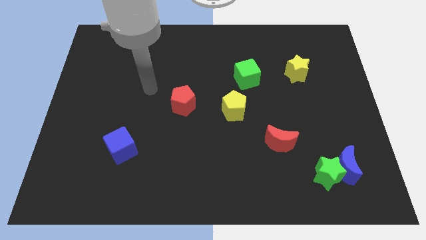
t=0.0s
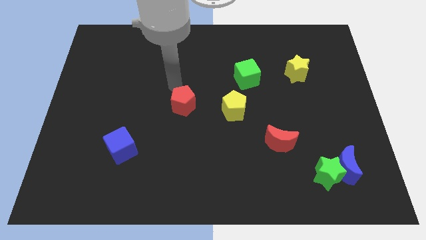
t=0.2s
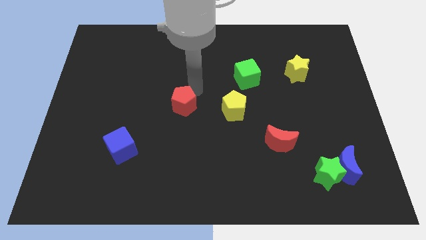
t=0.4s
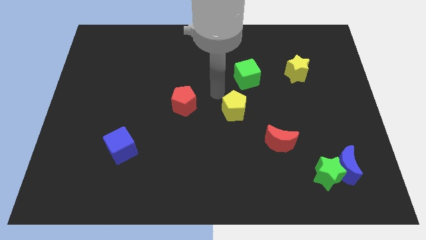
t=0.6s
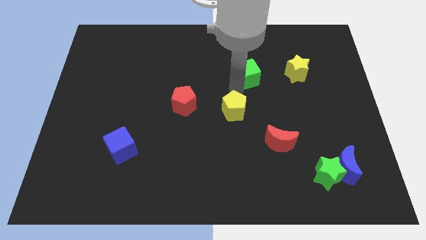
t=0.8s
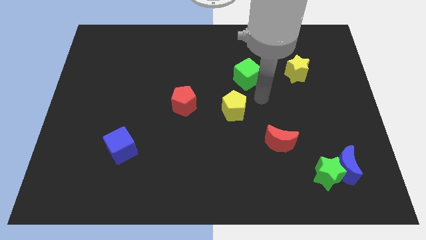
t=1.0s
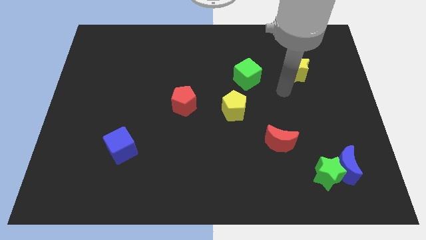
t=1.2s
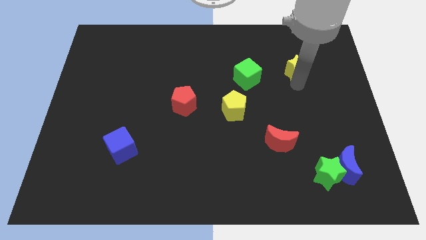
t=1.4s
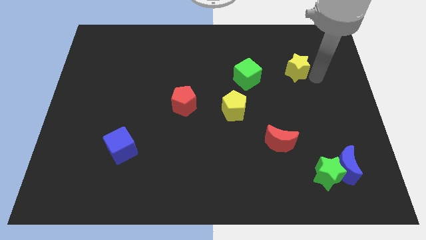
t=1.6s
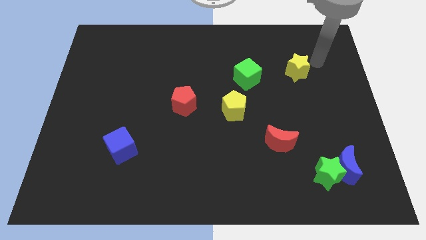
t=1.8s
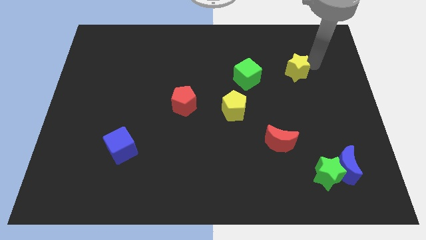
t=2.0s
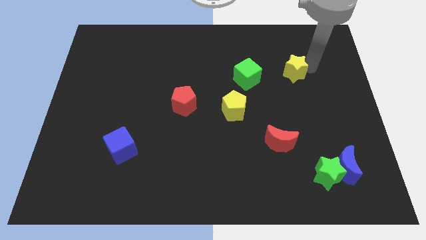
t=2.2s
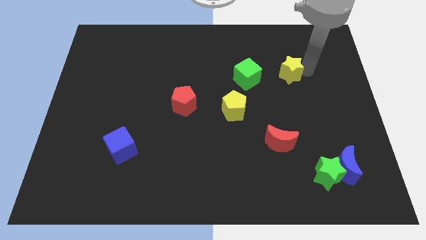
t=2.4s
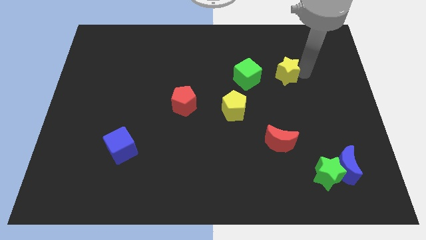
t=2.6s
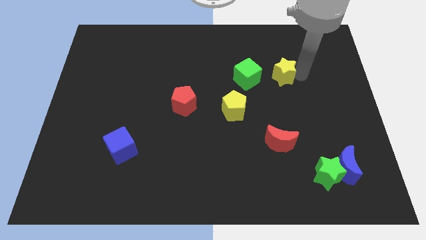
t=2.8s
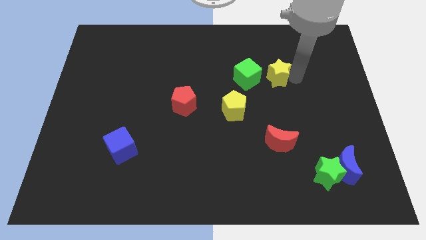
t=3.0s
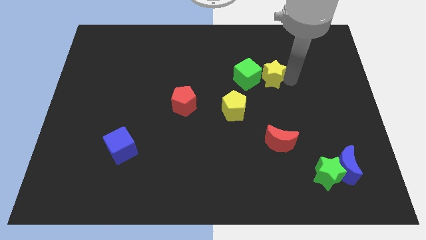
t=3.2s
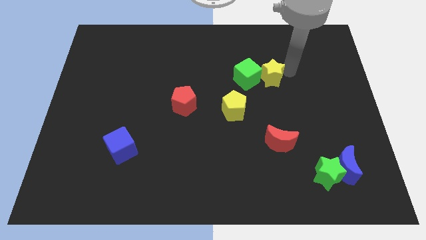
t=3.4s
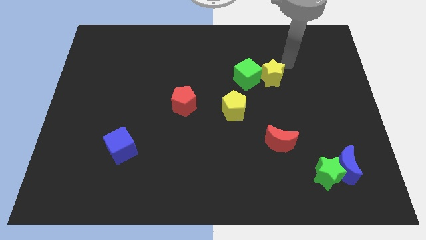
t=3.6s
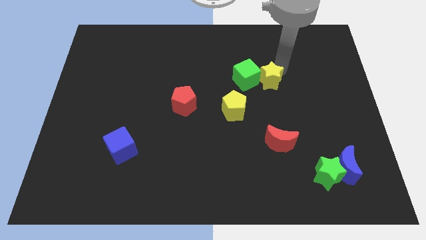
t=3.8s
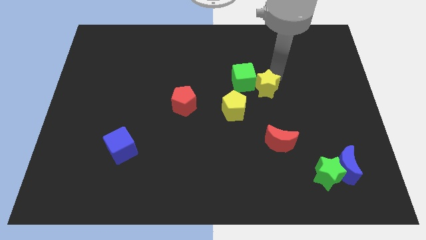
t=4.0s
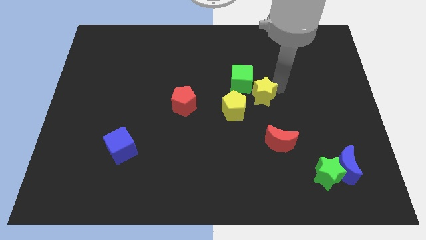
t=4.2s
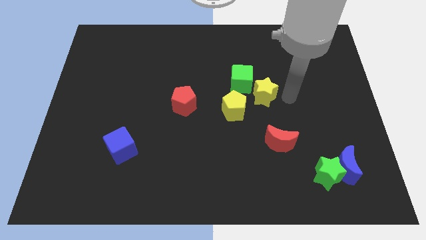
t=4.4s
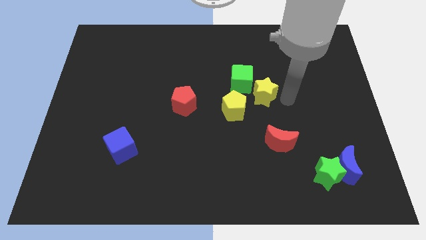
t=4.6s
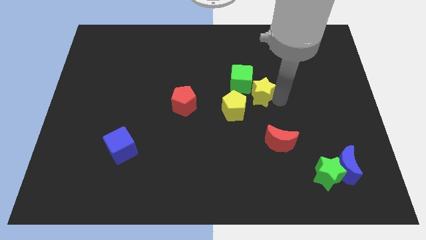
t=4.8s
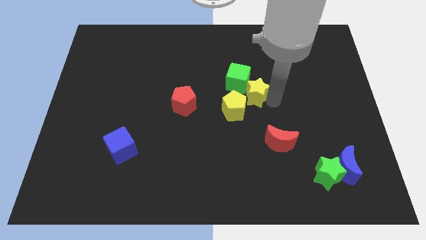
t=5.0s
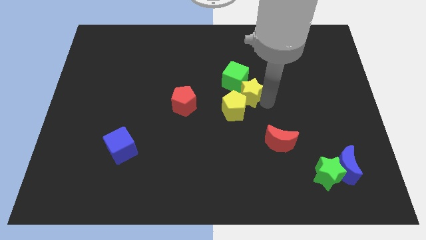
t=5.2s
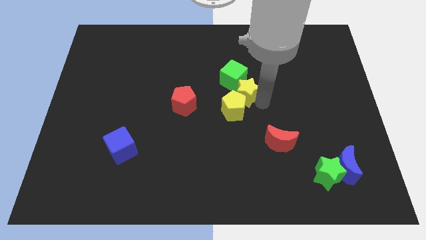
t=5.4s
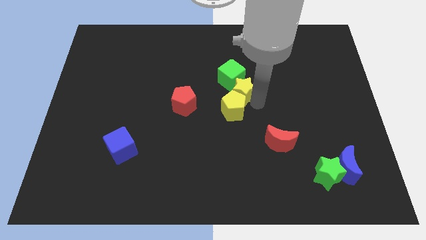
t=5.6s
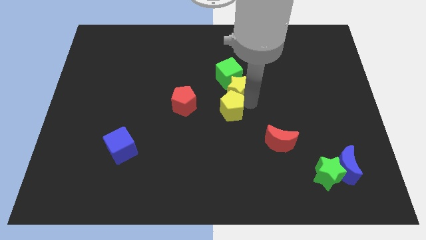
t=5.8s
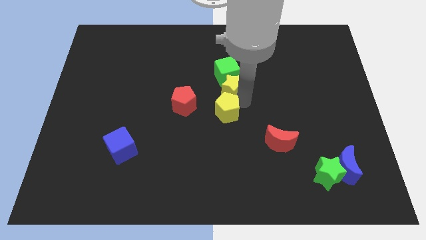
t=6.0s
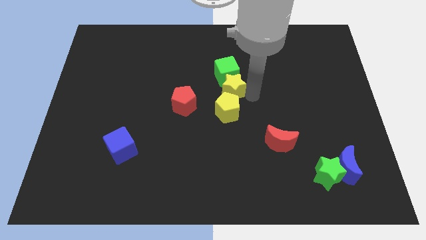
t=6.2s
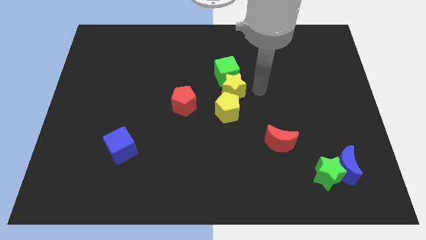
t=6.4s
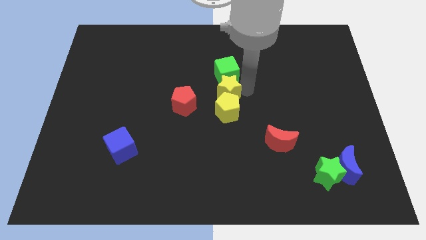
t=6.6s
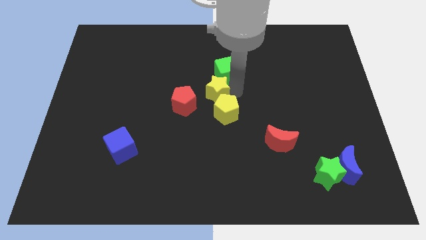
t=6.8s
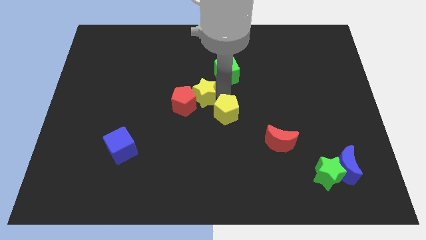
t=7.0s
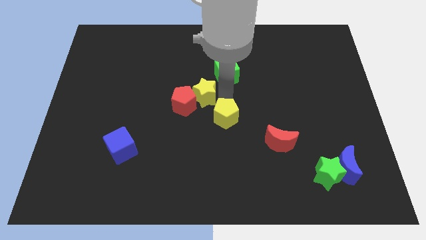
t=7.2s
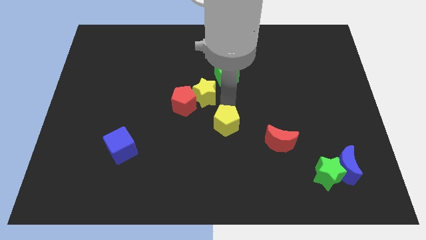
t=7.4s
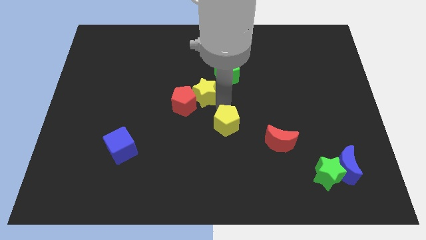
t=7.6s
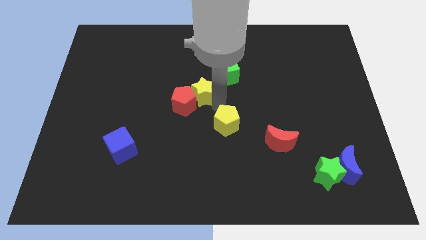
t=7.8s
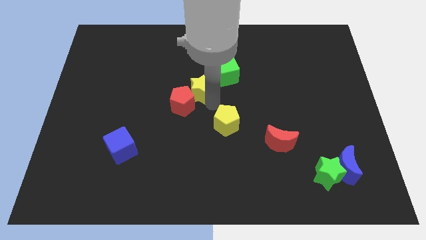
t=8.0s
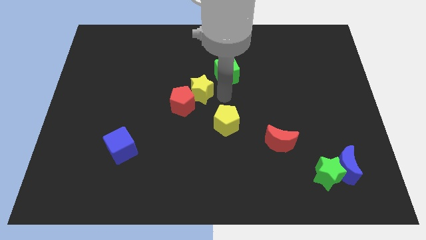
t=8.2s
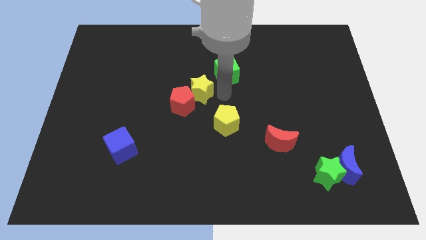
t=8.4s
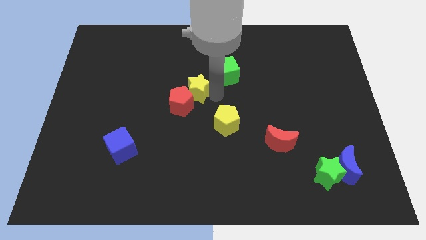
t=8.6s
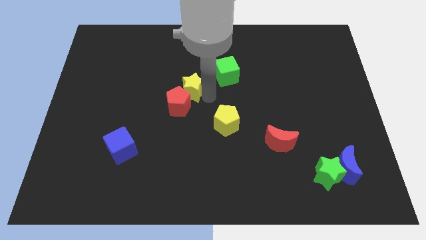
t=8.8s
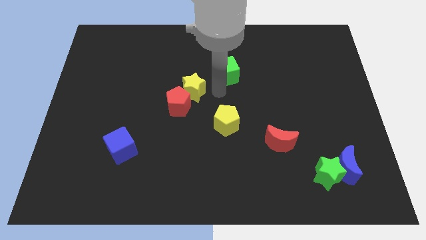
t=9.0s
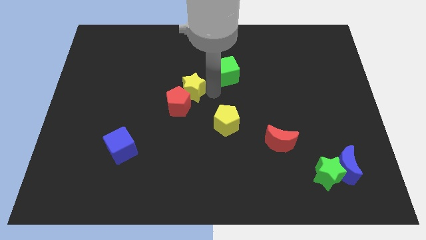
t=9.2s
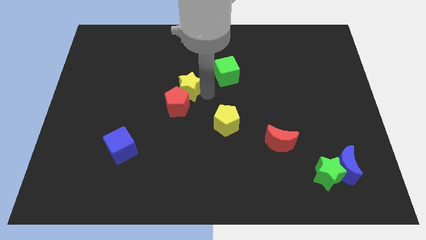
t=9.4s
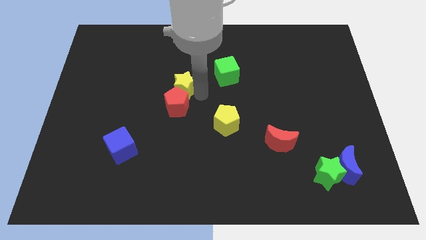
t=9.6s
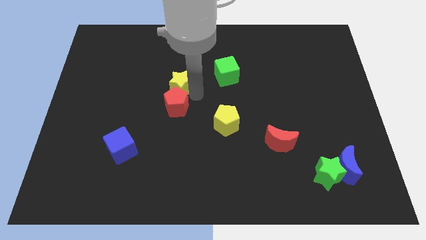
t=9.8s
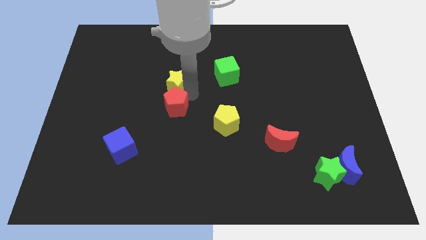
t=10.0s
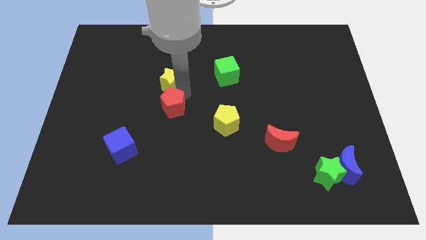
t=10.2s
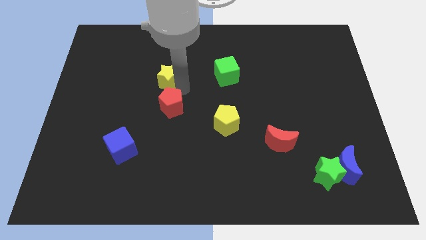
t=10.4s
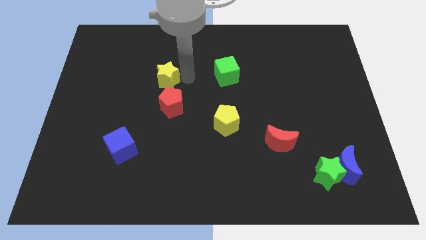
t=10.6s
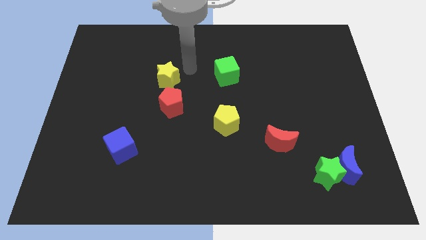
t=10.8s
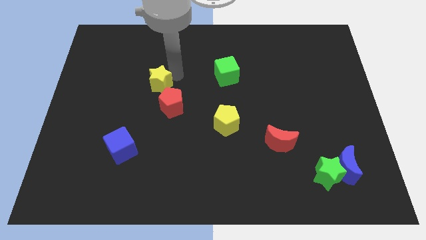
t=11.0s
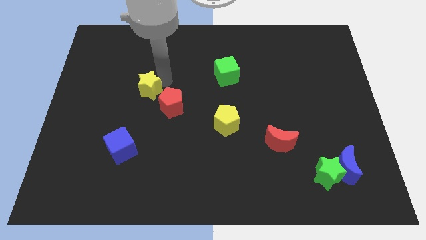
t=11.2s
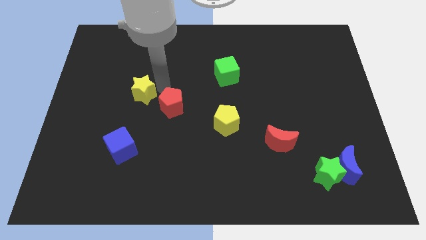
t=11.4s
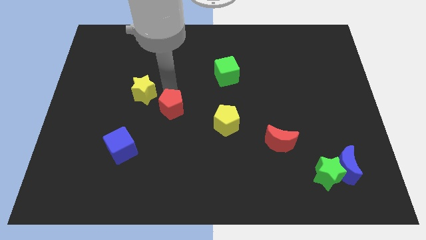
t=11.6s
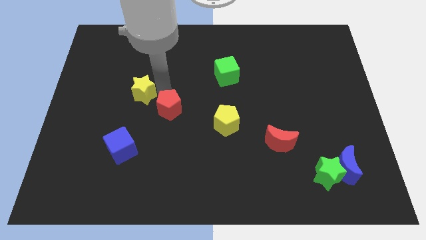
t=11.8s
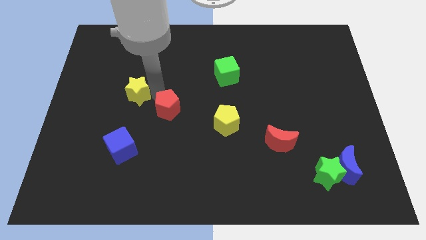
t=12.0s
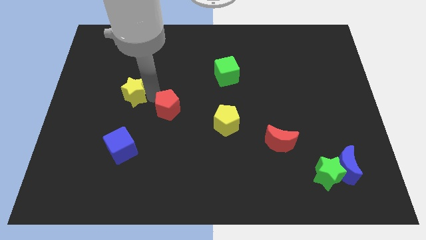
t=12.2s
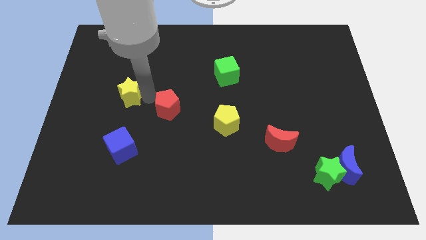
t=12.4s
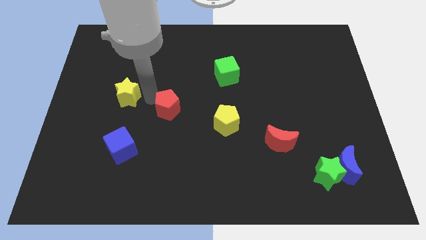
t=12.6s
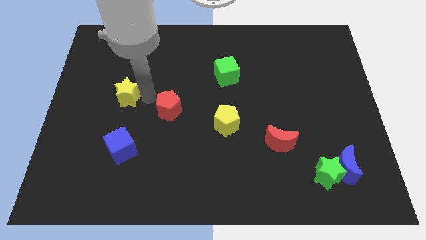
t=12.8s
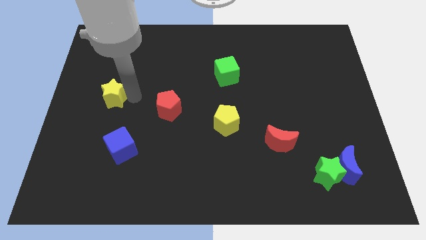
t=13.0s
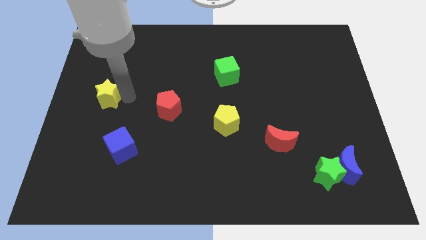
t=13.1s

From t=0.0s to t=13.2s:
put the yellow star to the left side of the board
